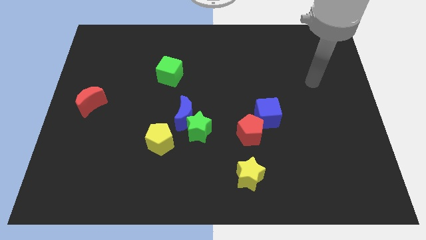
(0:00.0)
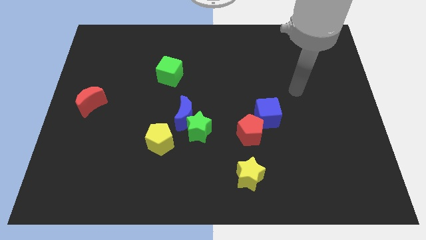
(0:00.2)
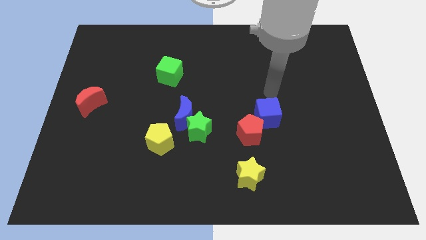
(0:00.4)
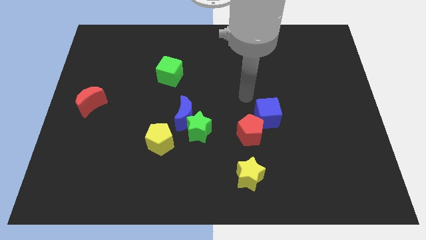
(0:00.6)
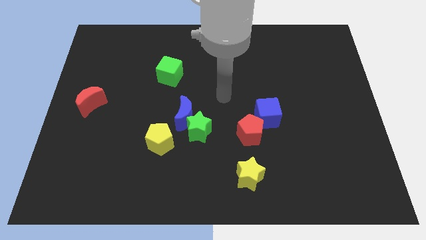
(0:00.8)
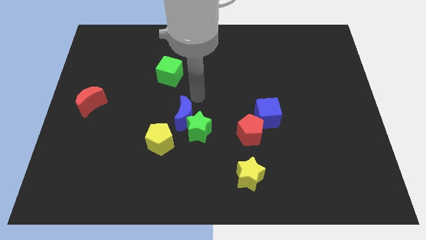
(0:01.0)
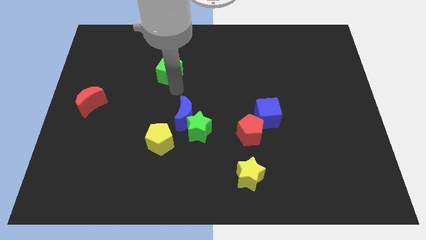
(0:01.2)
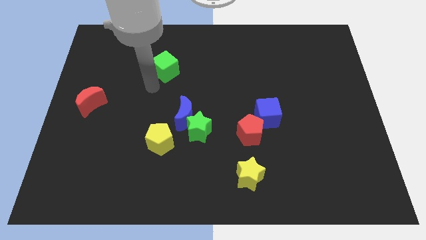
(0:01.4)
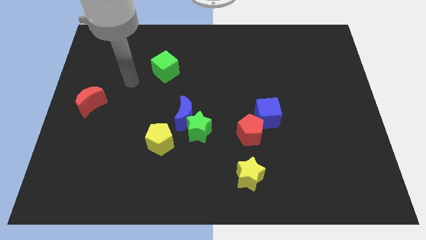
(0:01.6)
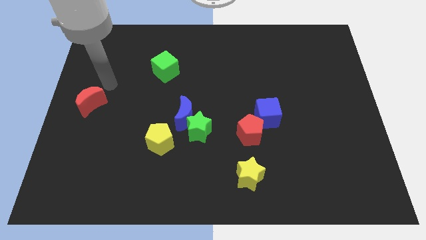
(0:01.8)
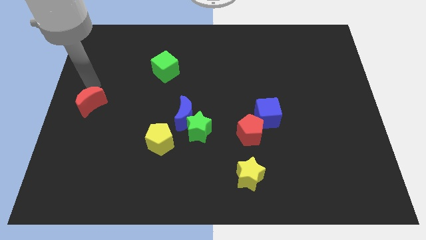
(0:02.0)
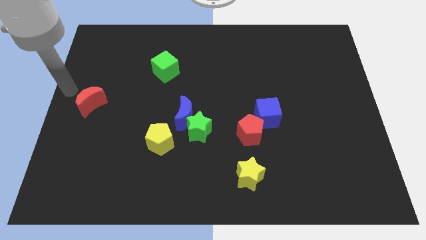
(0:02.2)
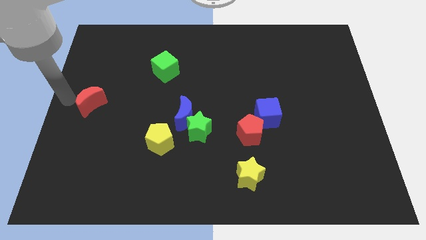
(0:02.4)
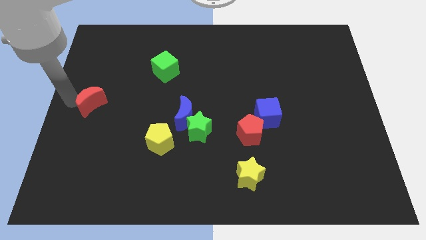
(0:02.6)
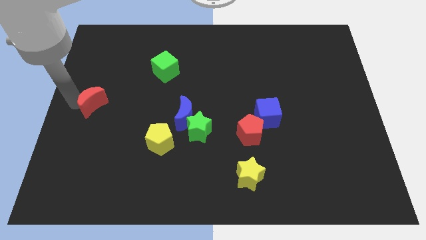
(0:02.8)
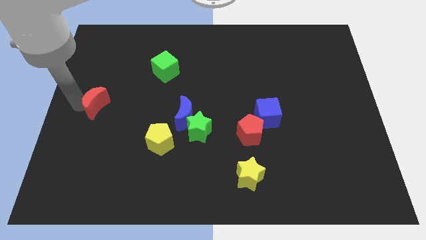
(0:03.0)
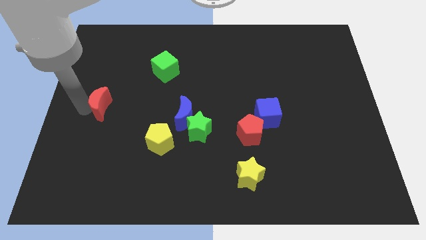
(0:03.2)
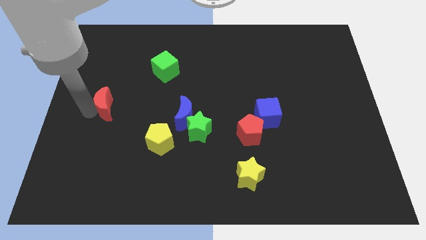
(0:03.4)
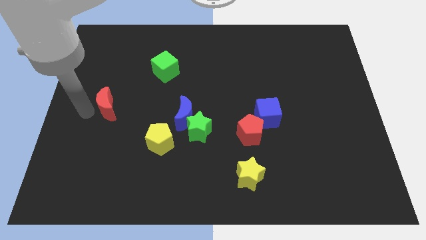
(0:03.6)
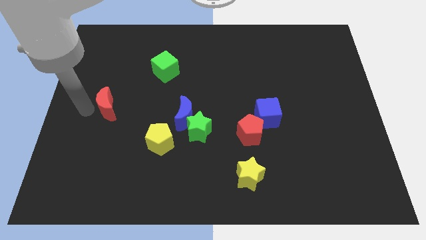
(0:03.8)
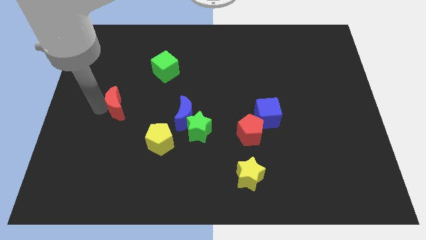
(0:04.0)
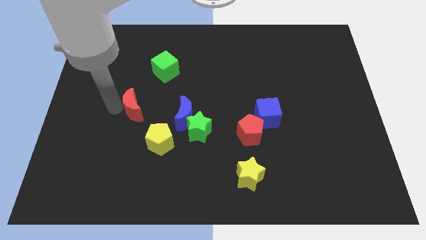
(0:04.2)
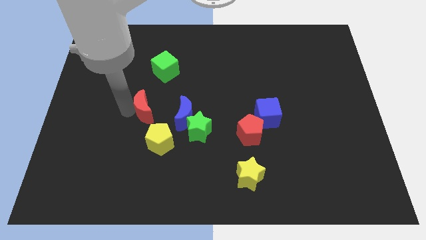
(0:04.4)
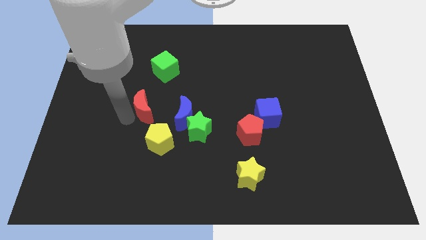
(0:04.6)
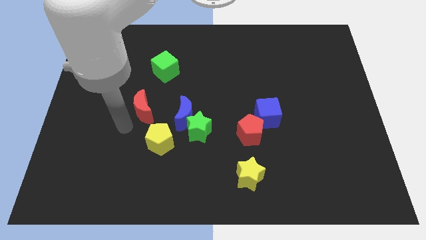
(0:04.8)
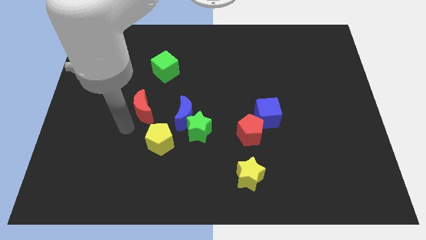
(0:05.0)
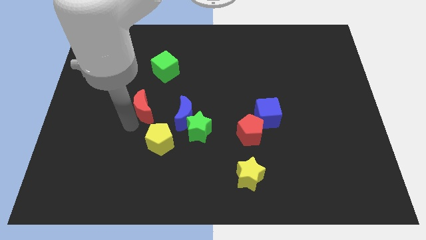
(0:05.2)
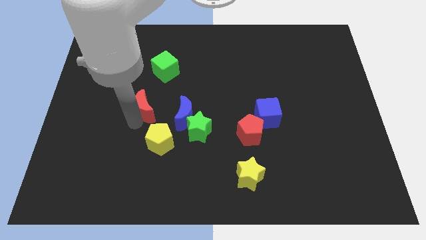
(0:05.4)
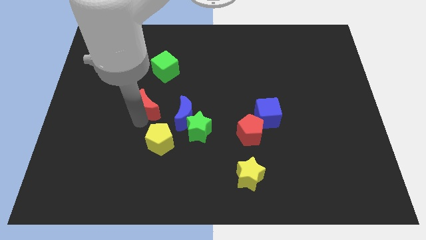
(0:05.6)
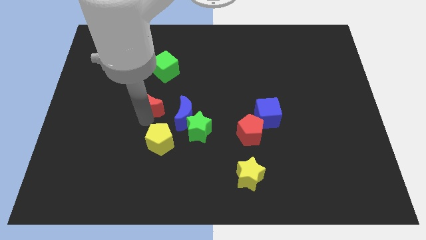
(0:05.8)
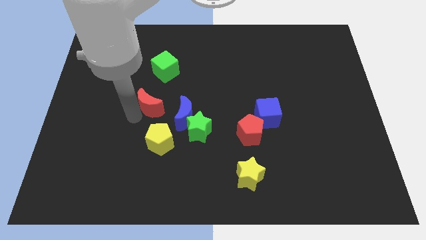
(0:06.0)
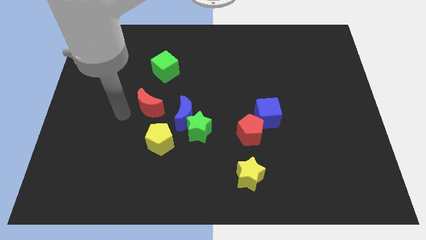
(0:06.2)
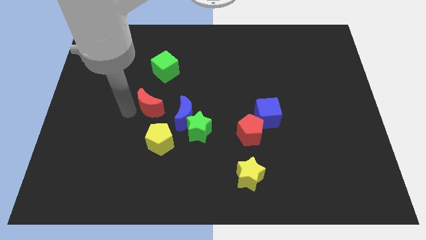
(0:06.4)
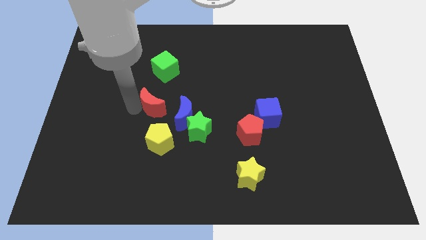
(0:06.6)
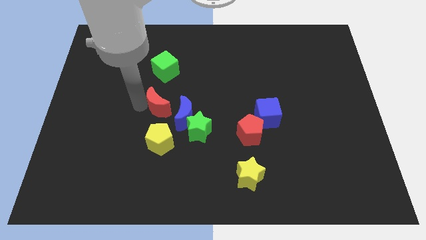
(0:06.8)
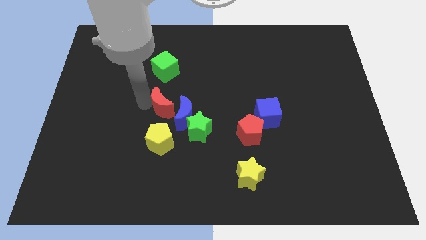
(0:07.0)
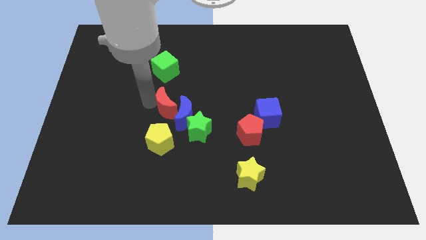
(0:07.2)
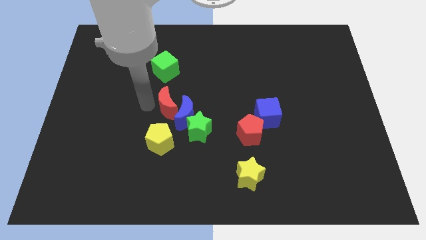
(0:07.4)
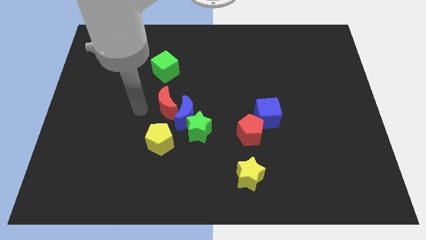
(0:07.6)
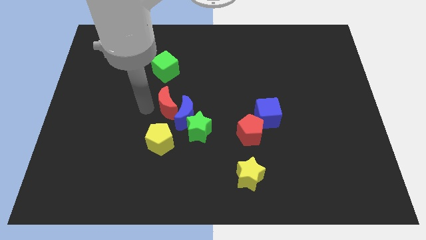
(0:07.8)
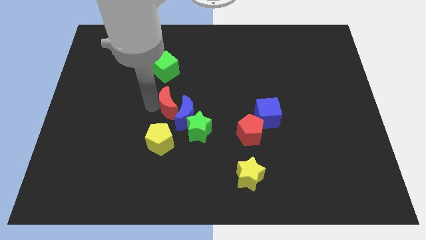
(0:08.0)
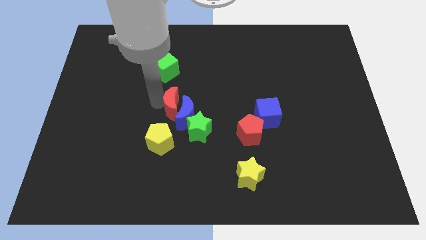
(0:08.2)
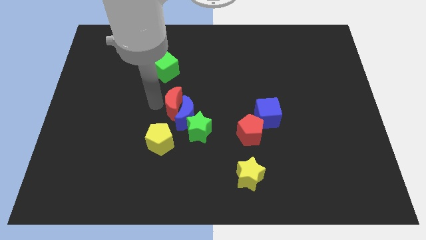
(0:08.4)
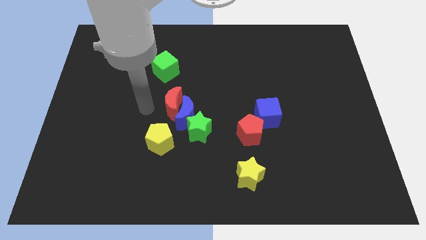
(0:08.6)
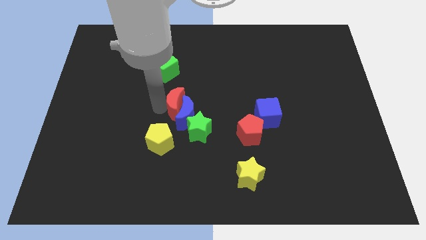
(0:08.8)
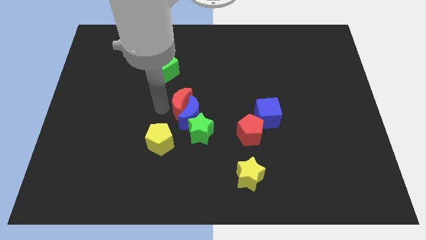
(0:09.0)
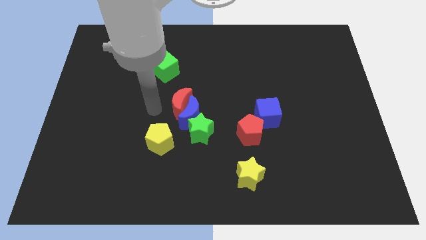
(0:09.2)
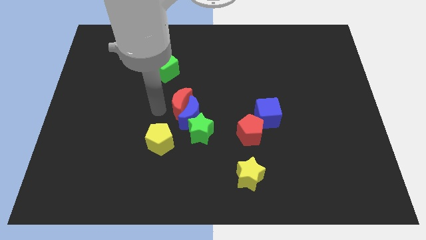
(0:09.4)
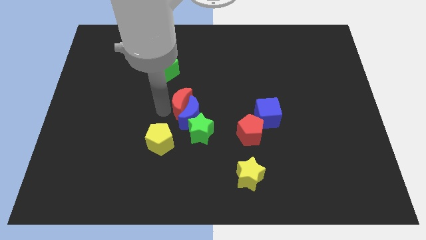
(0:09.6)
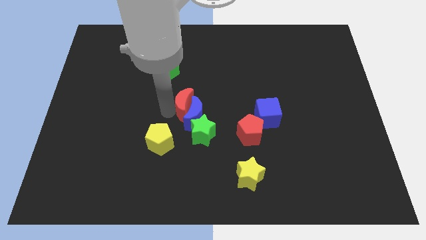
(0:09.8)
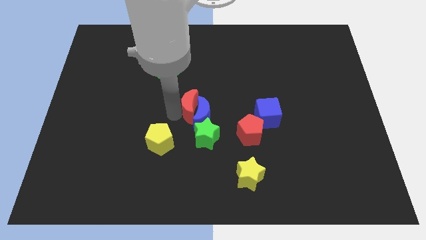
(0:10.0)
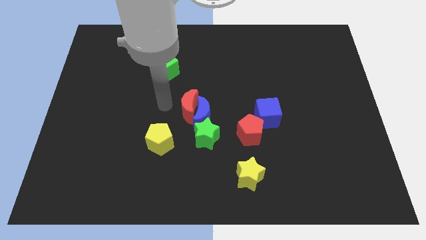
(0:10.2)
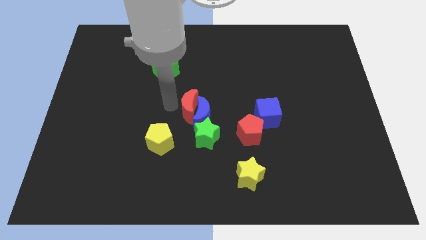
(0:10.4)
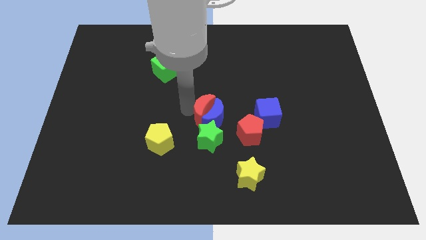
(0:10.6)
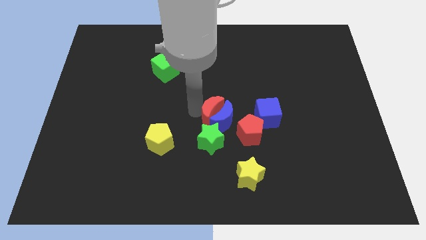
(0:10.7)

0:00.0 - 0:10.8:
slide the red moon to the top right side of the green star

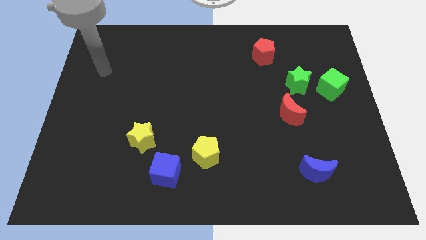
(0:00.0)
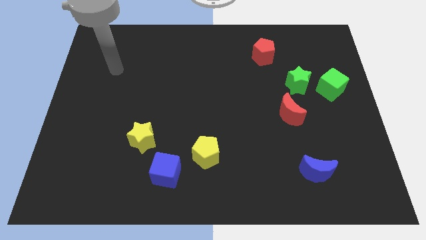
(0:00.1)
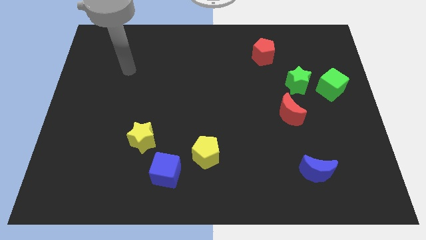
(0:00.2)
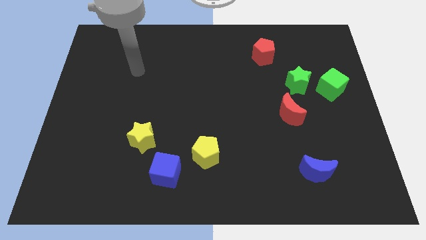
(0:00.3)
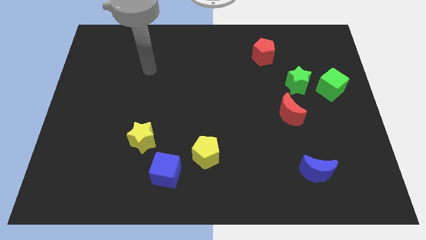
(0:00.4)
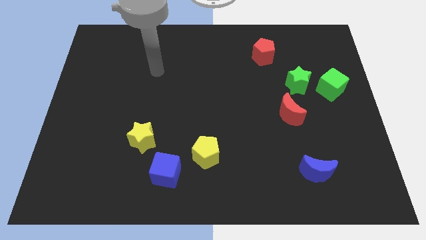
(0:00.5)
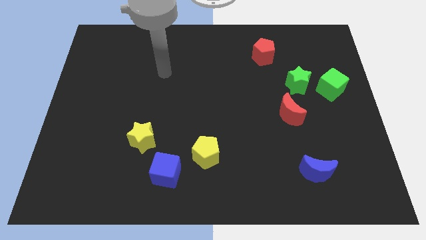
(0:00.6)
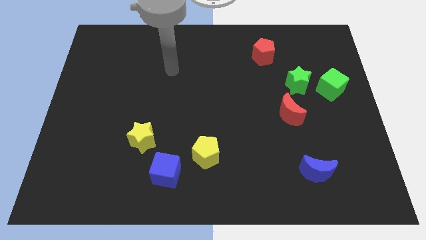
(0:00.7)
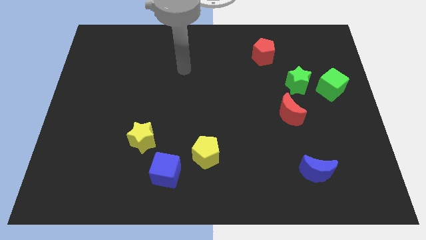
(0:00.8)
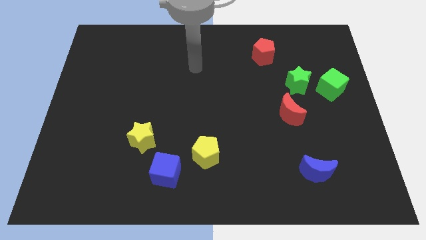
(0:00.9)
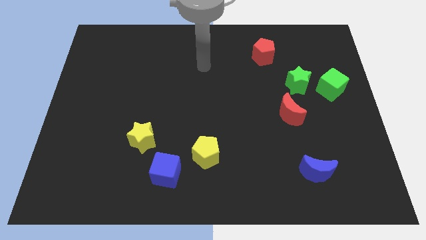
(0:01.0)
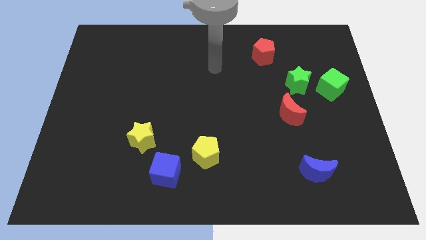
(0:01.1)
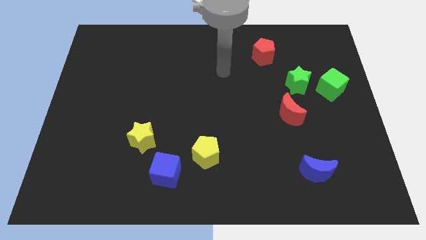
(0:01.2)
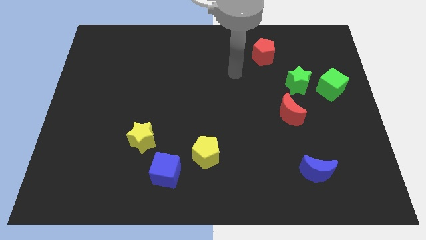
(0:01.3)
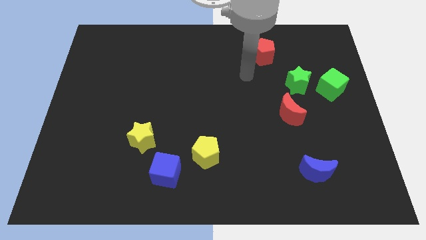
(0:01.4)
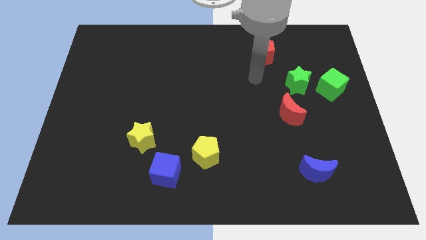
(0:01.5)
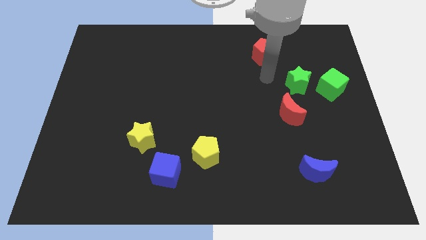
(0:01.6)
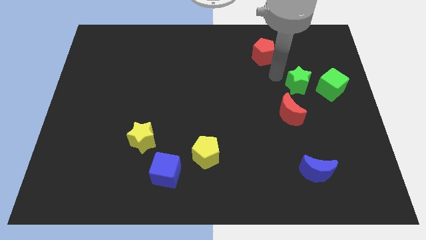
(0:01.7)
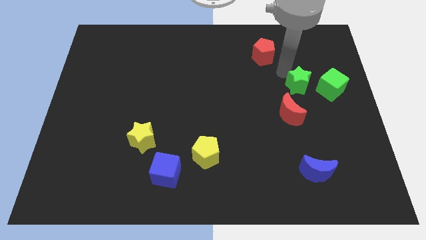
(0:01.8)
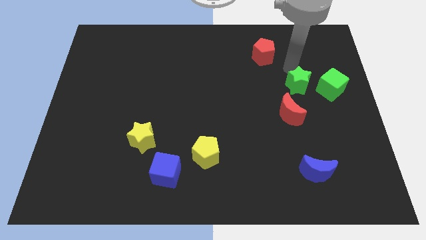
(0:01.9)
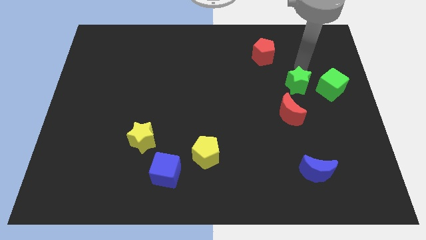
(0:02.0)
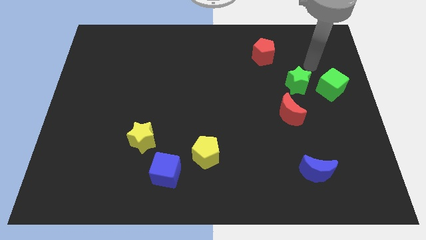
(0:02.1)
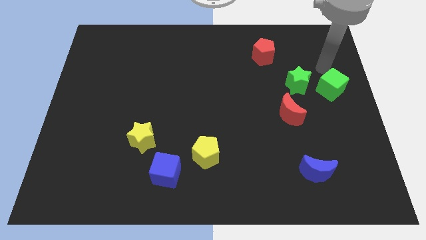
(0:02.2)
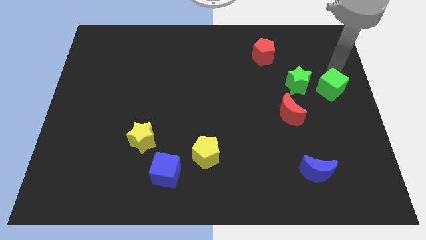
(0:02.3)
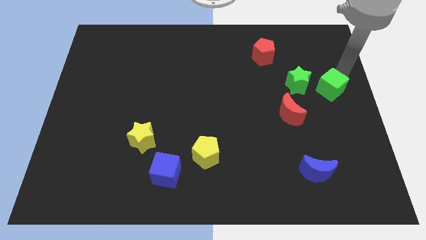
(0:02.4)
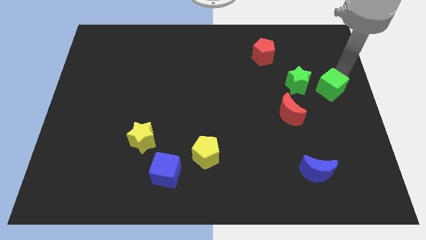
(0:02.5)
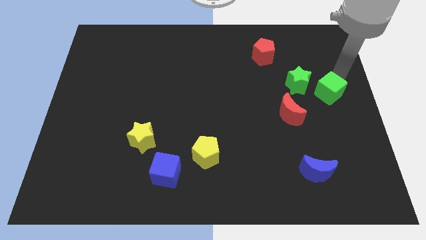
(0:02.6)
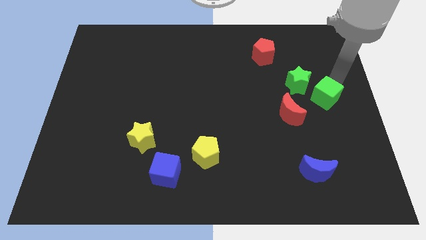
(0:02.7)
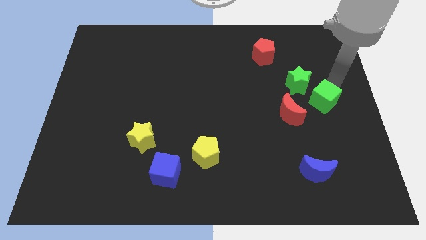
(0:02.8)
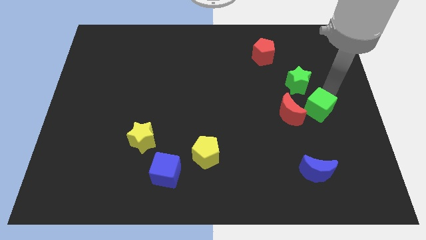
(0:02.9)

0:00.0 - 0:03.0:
push the green cube to the bottom of the green star
